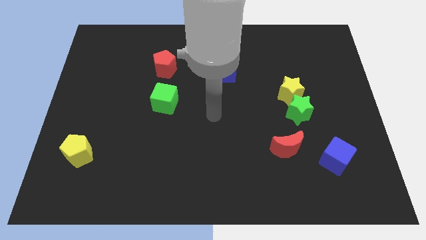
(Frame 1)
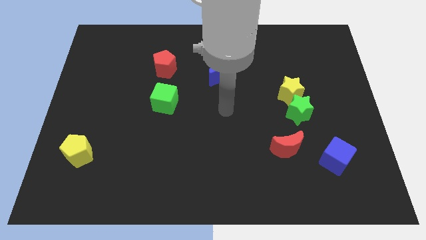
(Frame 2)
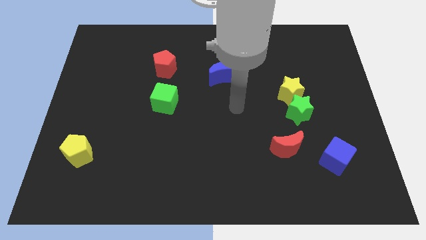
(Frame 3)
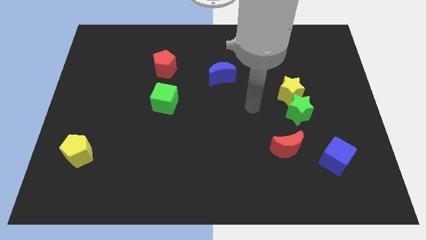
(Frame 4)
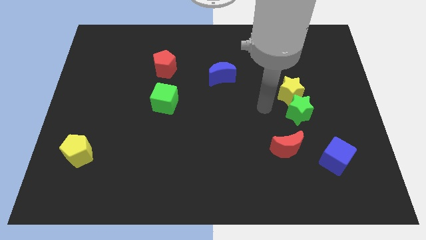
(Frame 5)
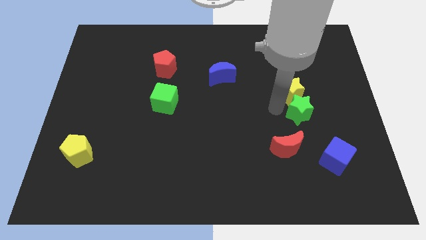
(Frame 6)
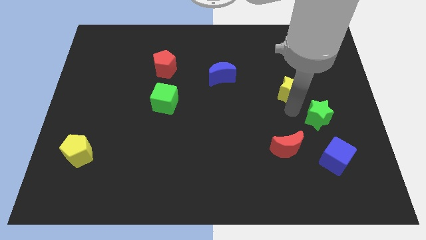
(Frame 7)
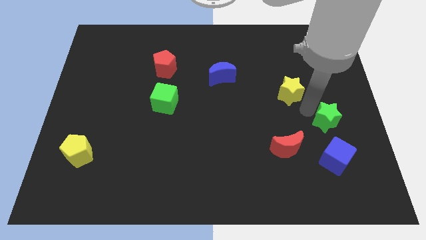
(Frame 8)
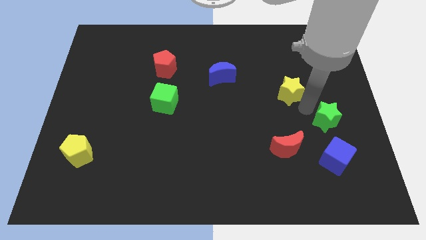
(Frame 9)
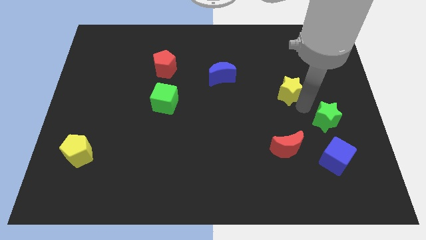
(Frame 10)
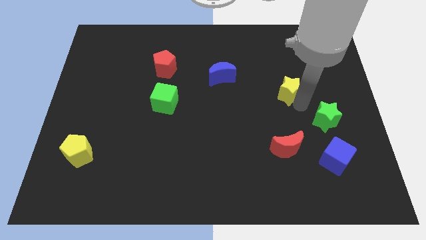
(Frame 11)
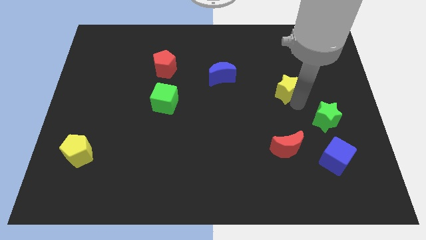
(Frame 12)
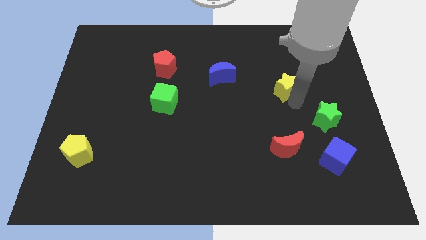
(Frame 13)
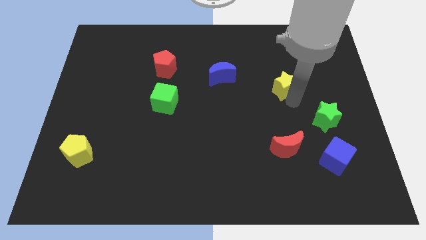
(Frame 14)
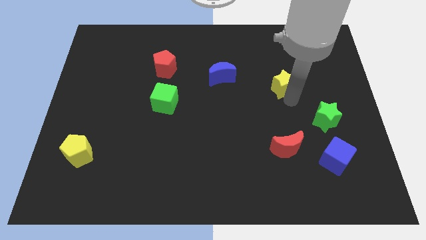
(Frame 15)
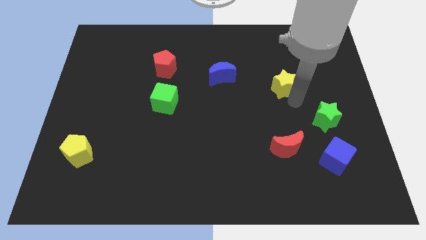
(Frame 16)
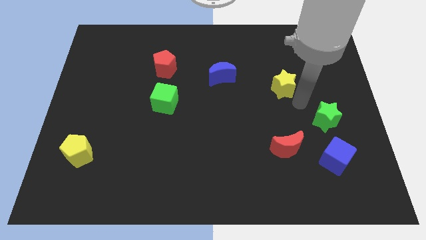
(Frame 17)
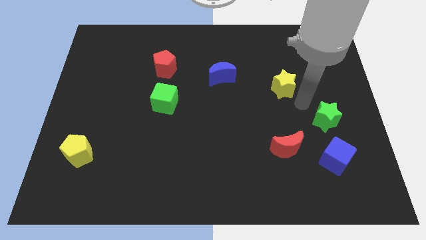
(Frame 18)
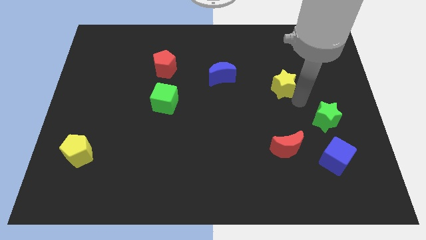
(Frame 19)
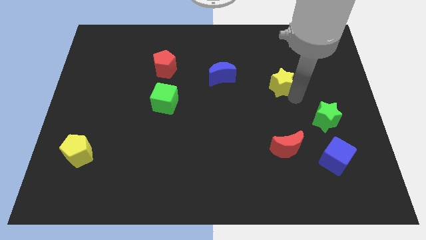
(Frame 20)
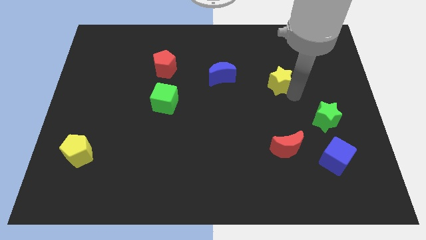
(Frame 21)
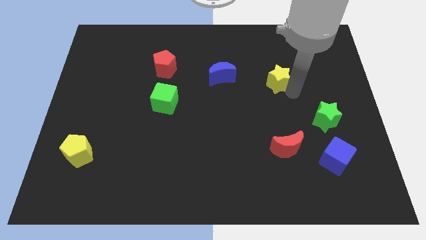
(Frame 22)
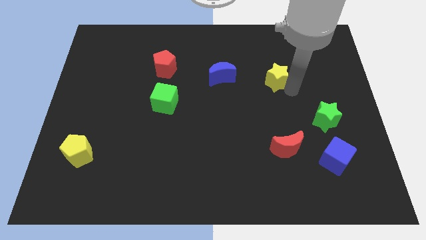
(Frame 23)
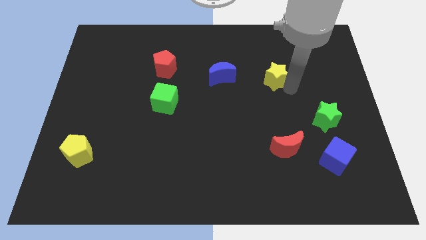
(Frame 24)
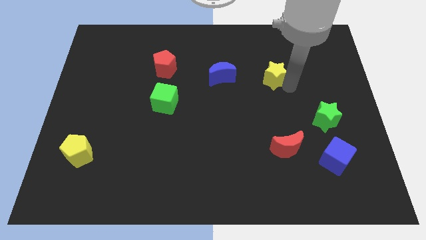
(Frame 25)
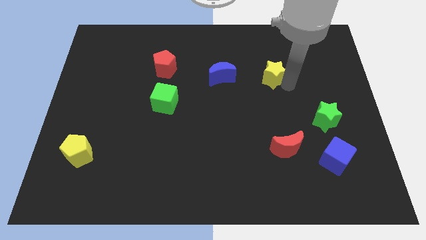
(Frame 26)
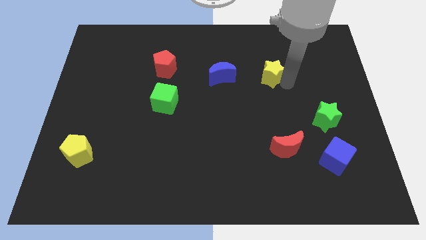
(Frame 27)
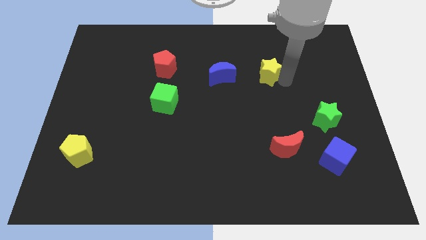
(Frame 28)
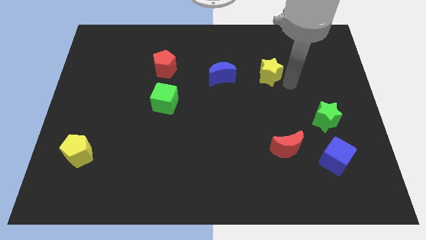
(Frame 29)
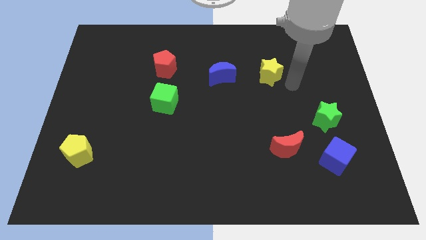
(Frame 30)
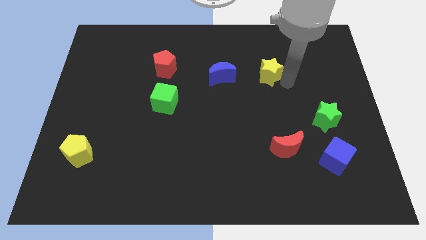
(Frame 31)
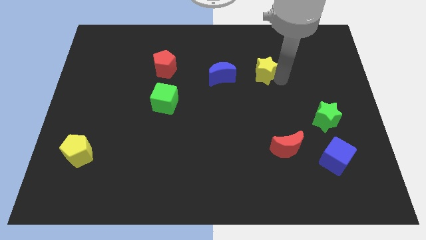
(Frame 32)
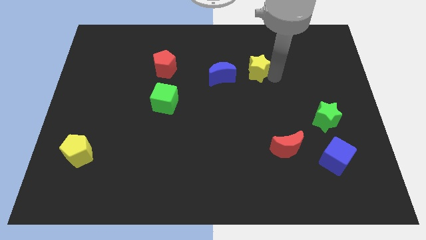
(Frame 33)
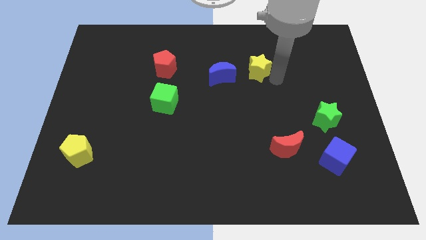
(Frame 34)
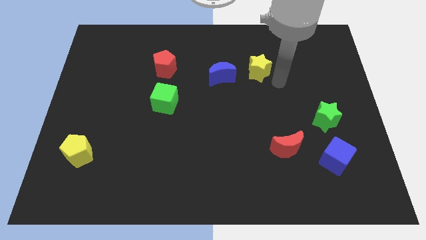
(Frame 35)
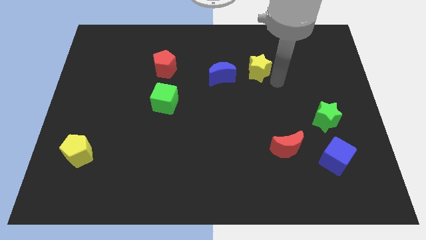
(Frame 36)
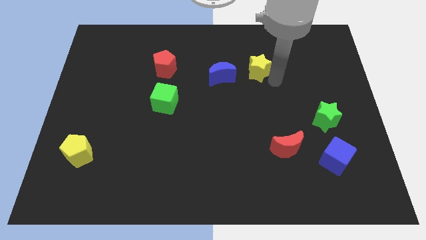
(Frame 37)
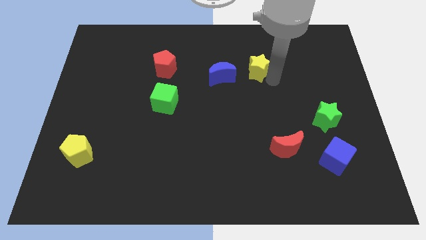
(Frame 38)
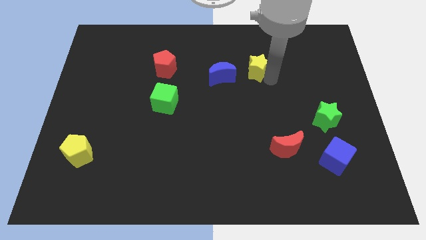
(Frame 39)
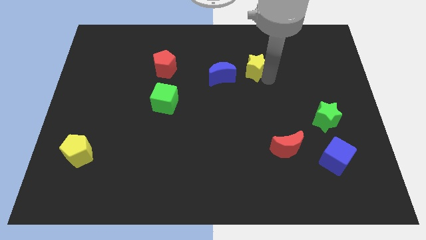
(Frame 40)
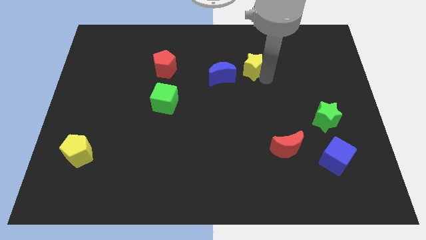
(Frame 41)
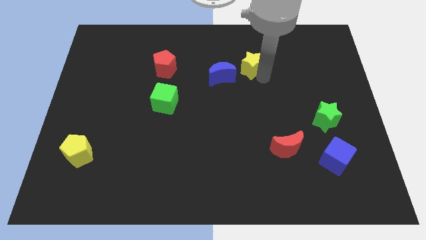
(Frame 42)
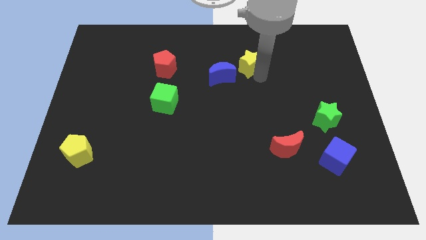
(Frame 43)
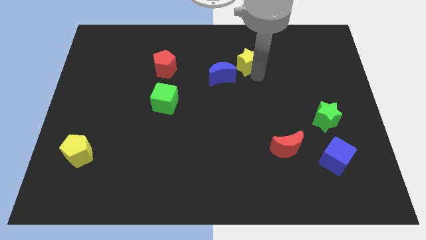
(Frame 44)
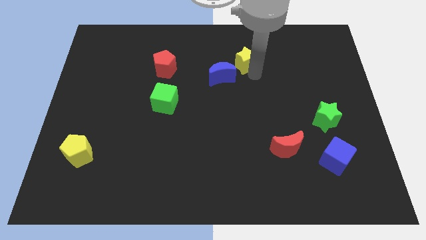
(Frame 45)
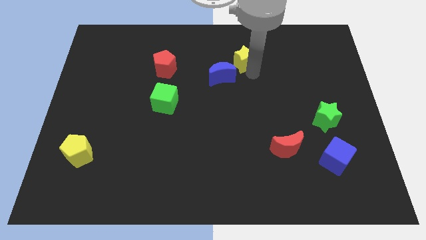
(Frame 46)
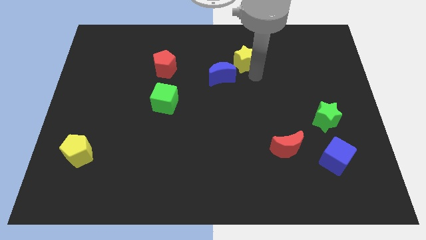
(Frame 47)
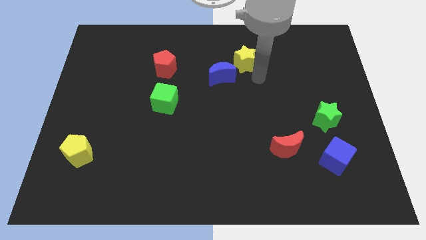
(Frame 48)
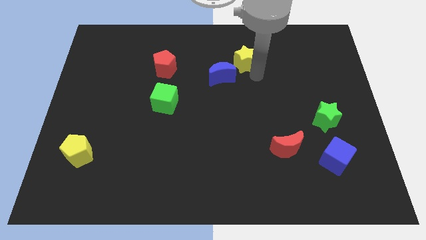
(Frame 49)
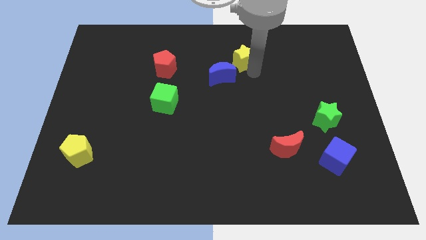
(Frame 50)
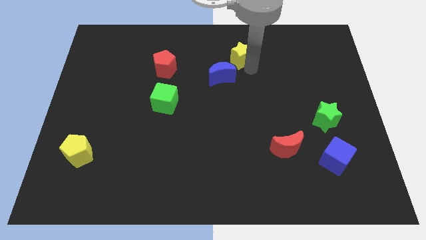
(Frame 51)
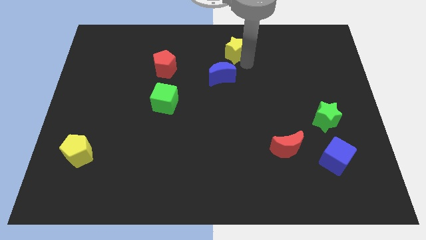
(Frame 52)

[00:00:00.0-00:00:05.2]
put the yellow star to the top side
